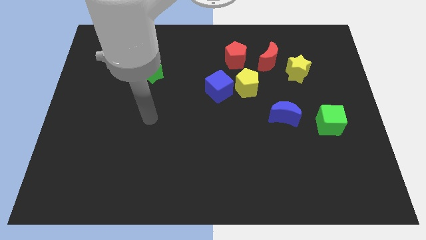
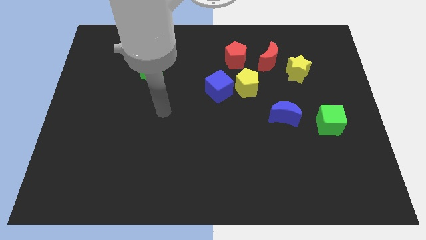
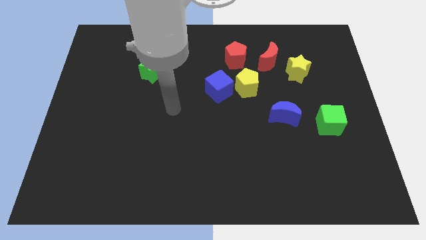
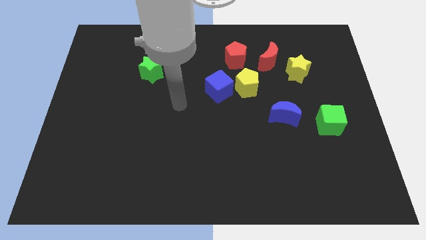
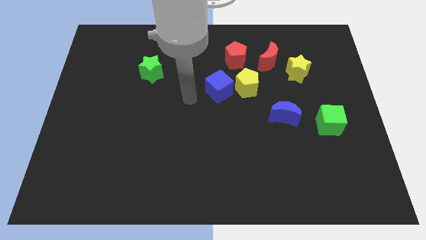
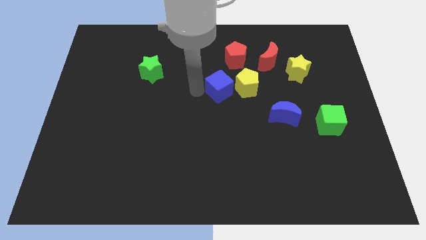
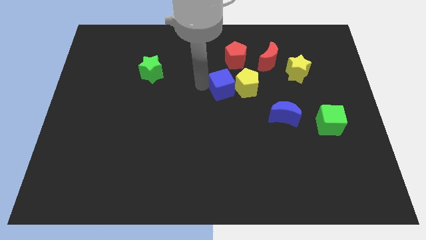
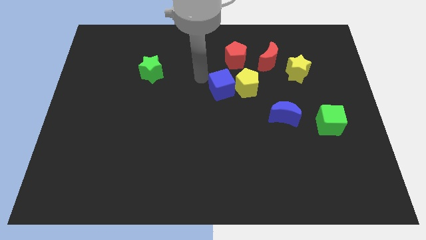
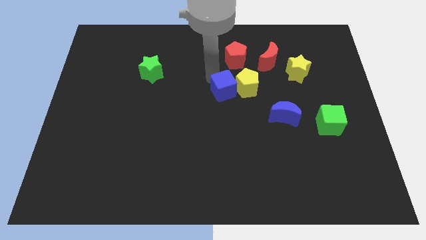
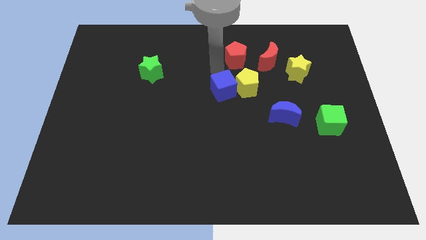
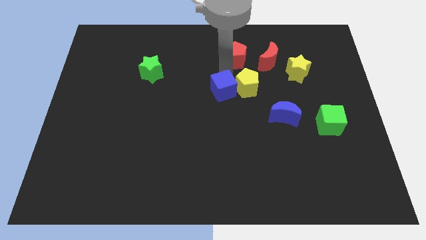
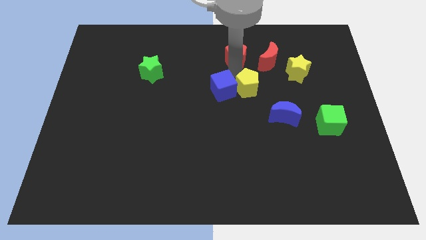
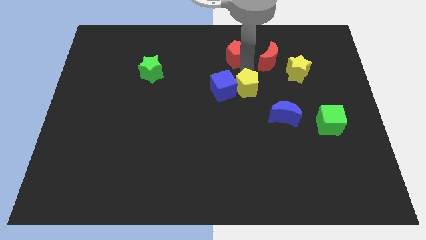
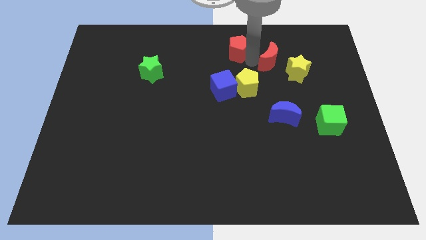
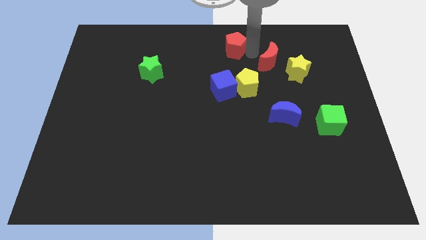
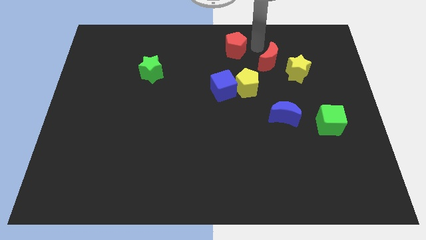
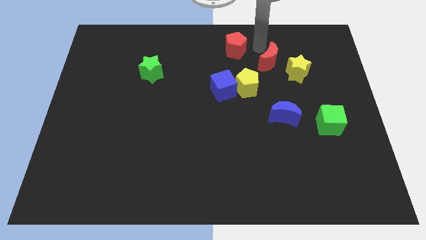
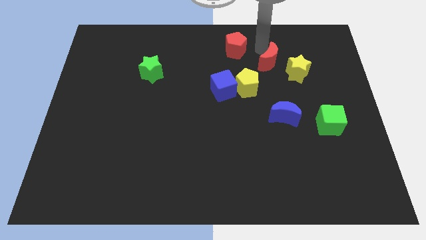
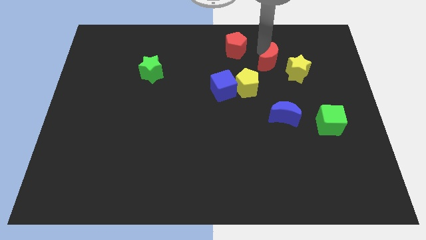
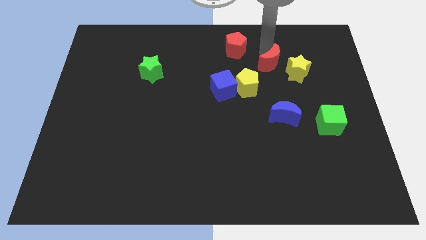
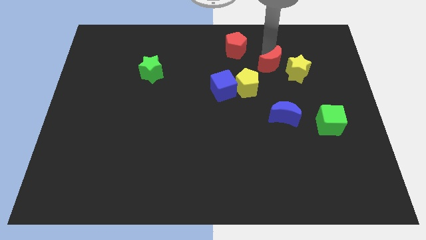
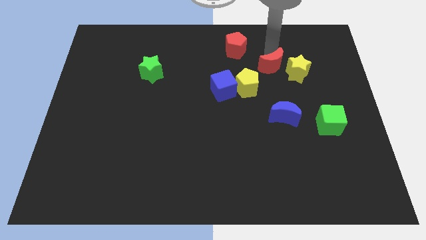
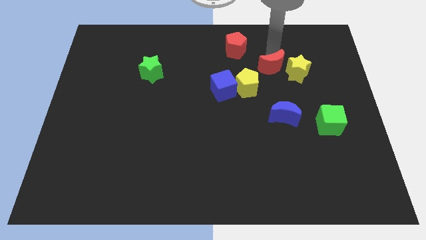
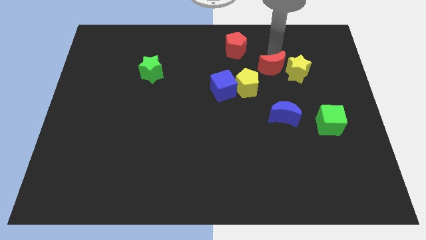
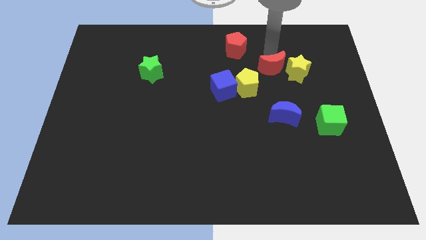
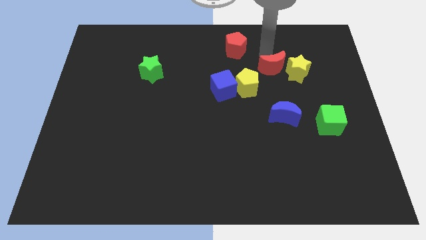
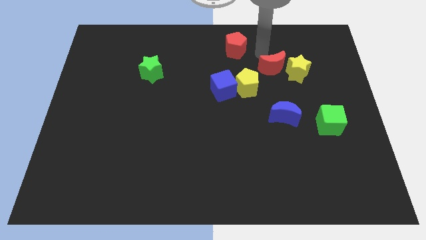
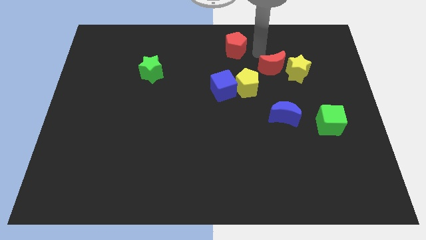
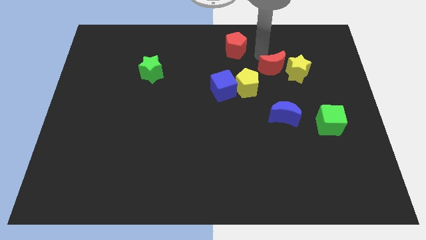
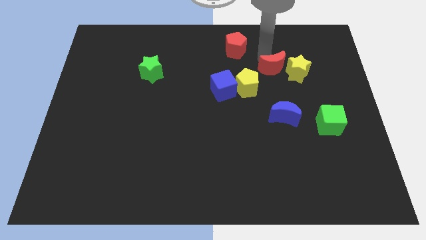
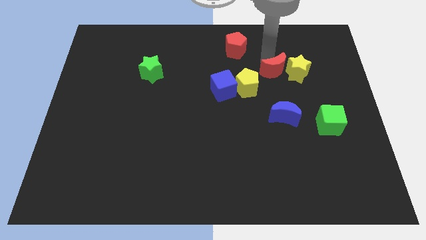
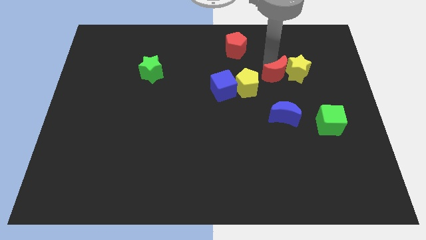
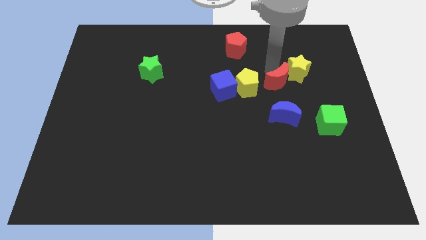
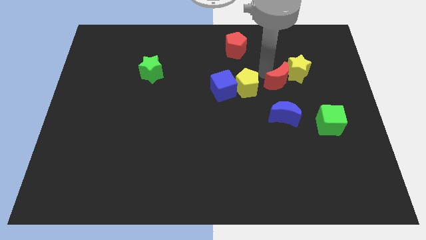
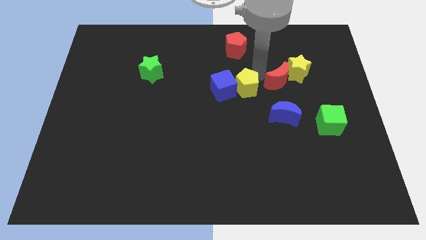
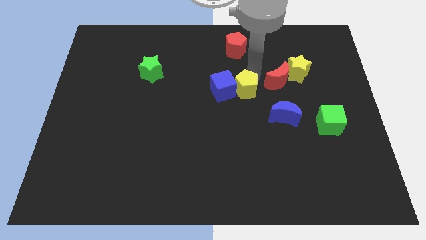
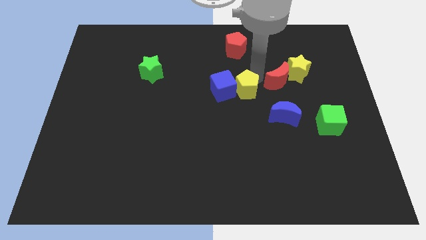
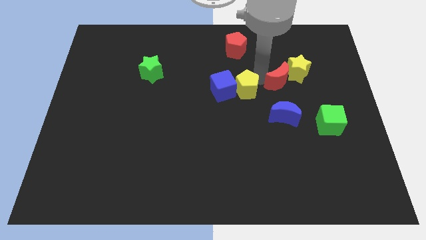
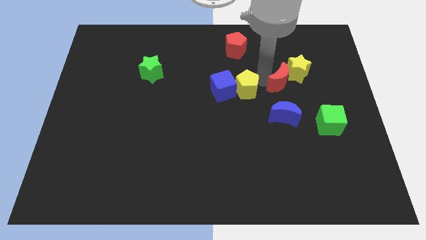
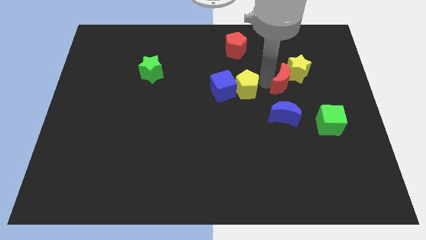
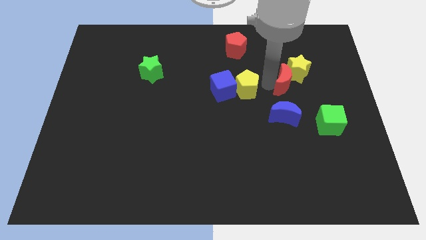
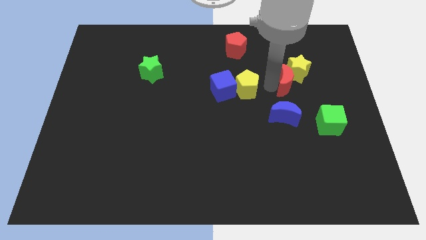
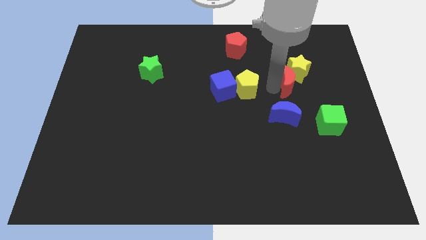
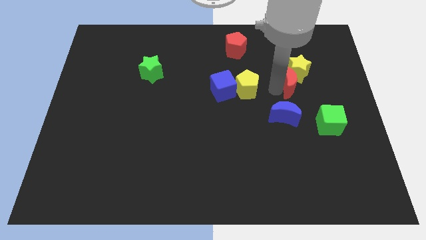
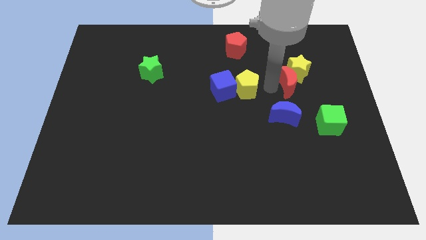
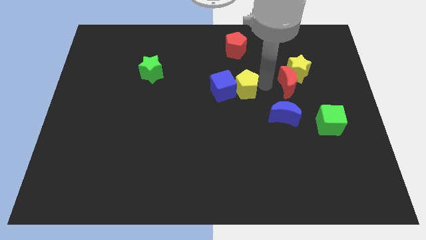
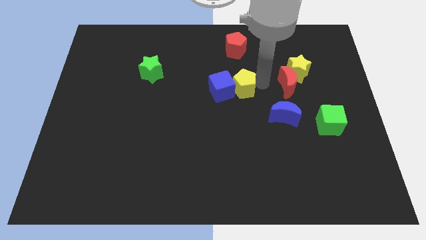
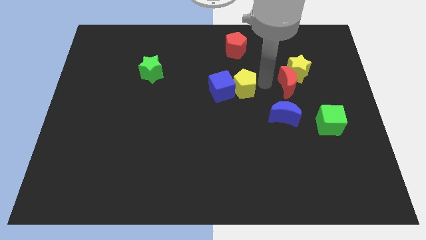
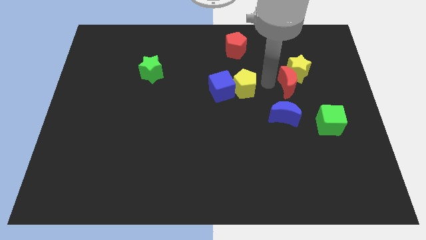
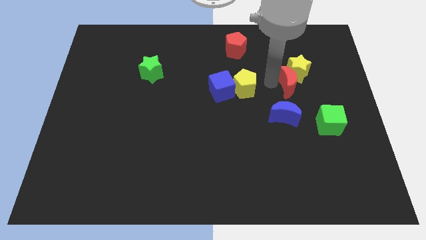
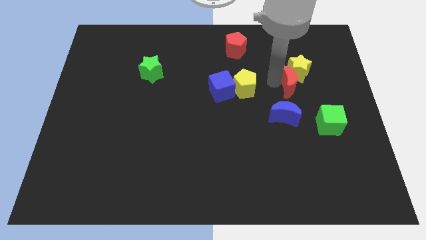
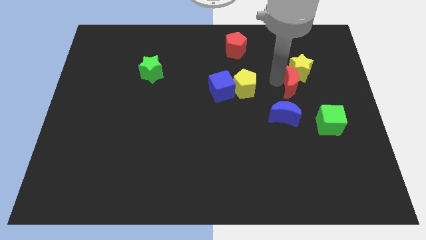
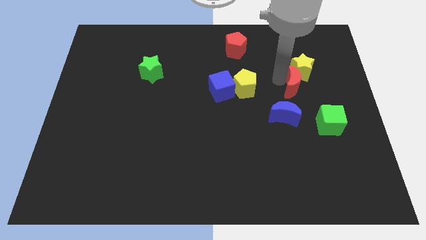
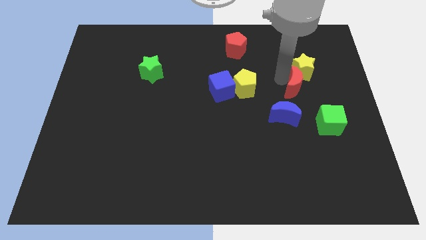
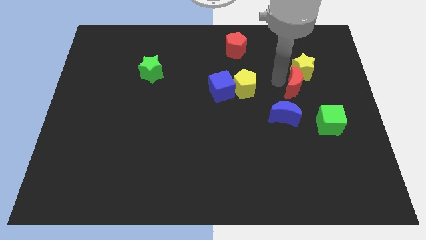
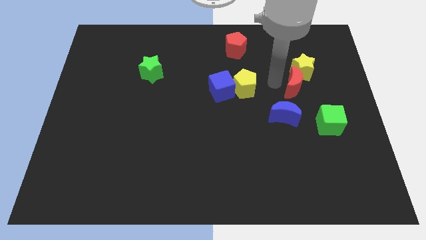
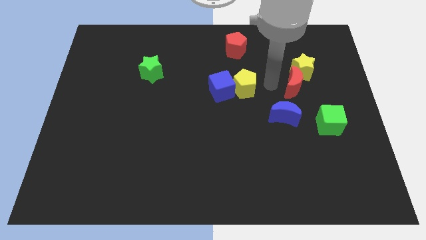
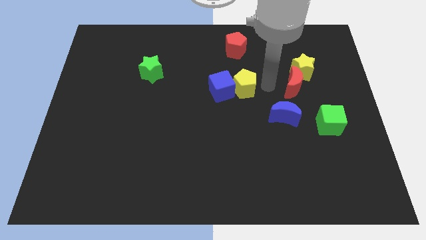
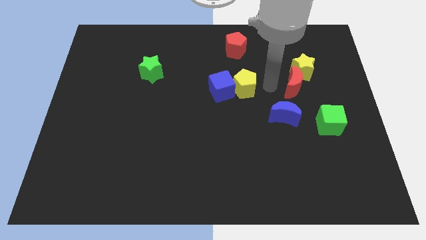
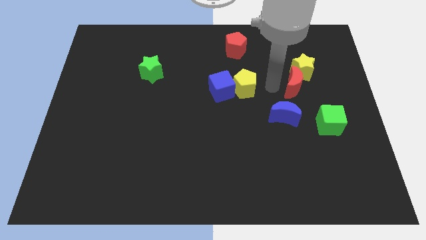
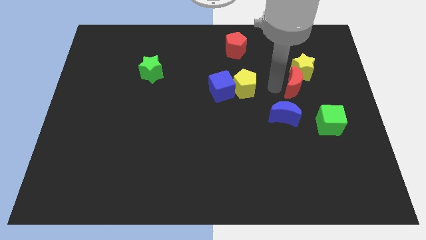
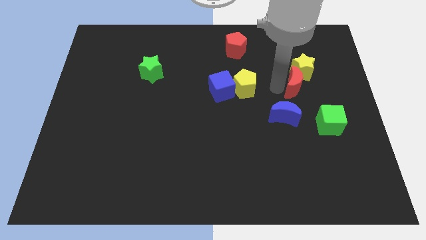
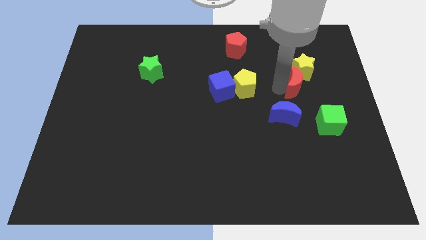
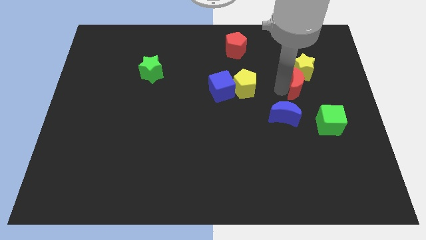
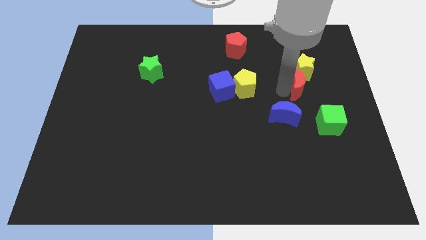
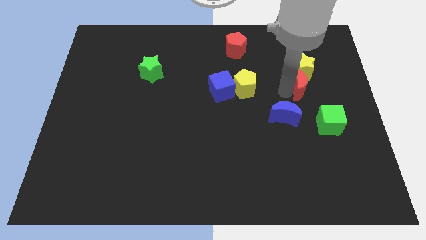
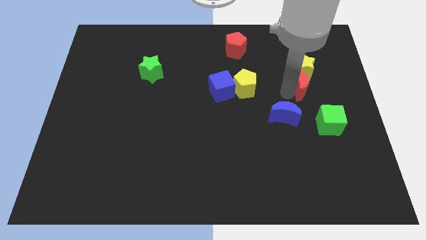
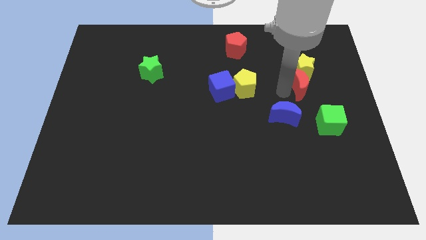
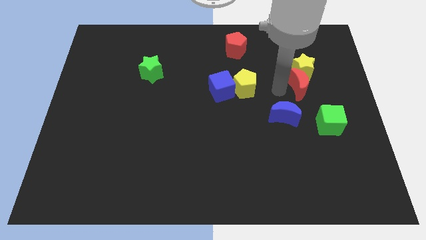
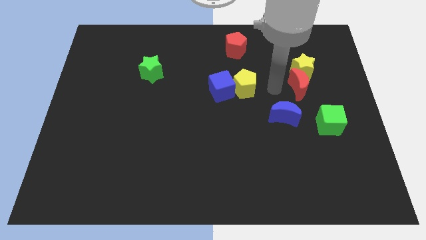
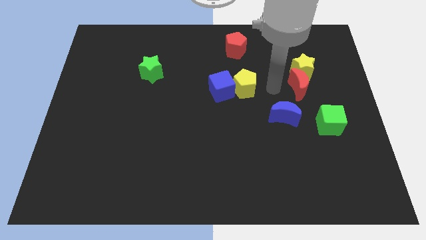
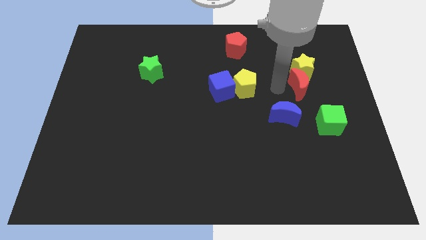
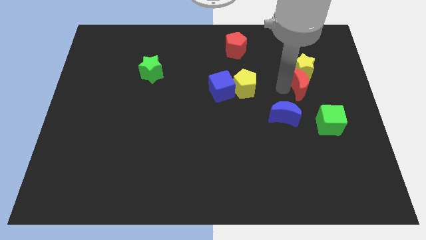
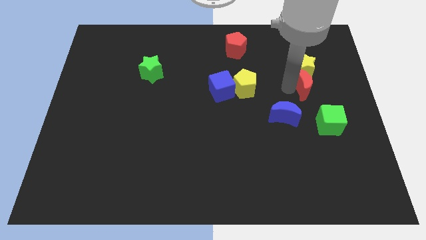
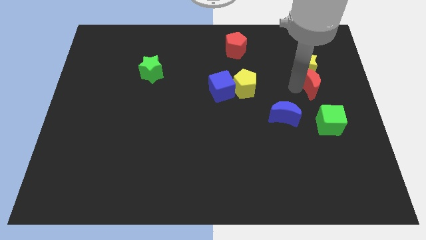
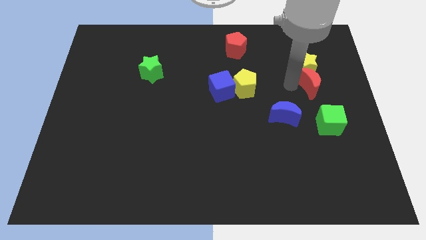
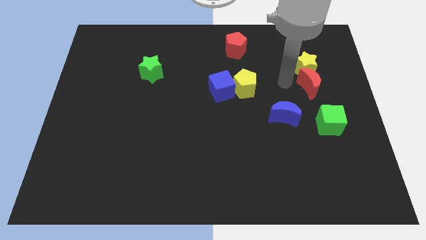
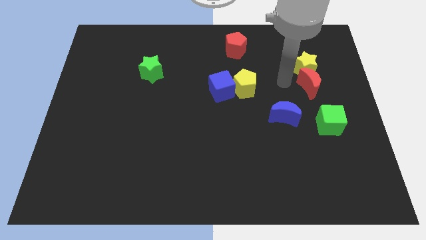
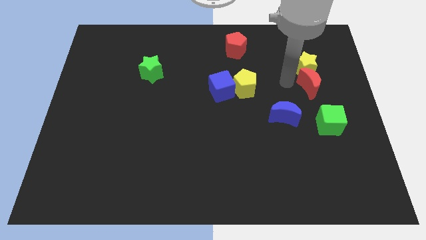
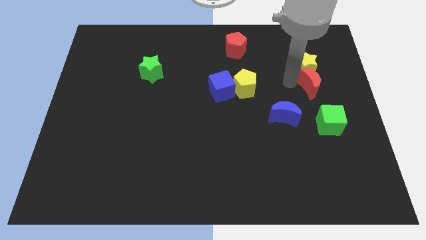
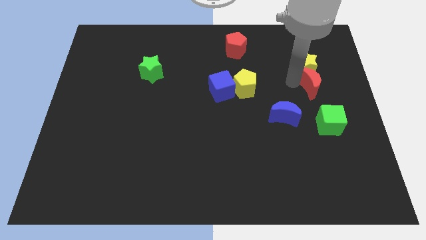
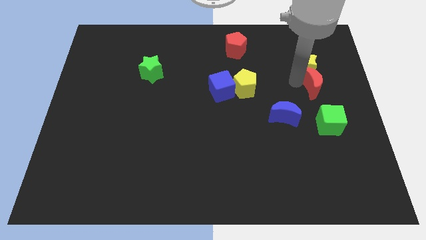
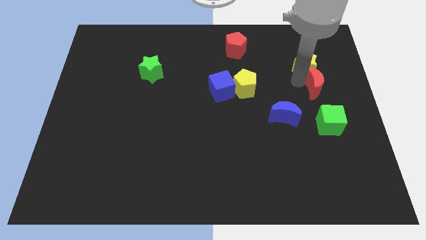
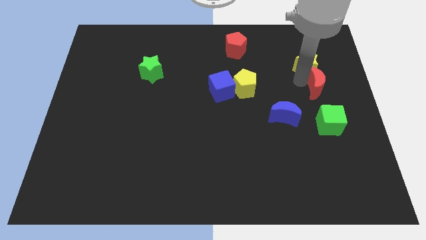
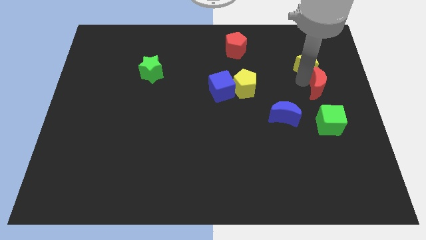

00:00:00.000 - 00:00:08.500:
push the red moon to the right side of the board
